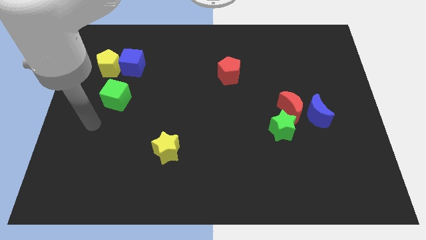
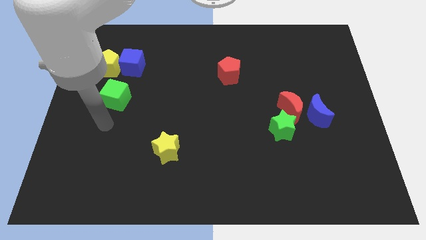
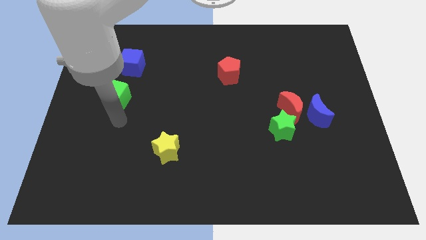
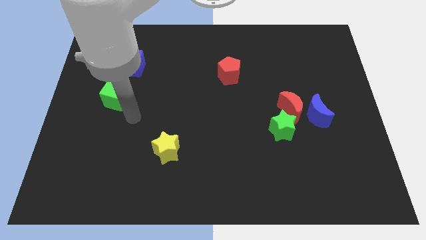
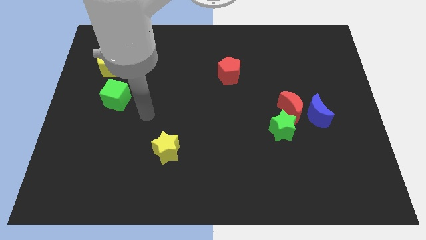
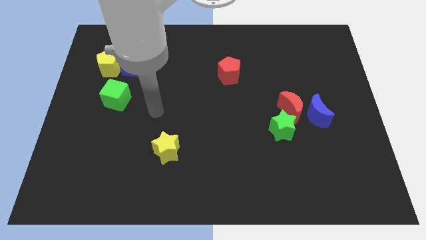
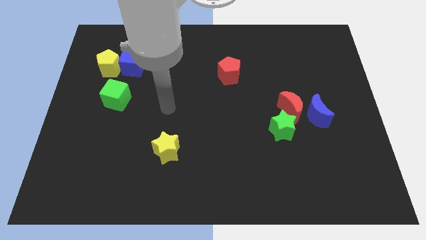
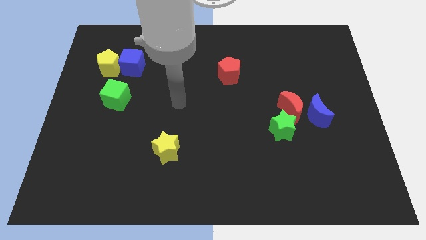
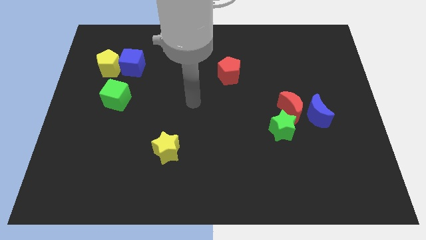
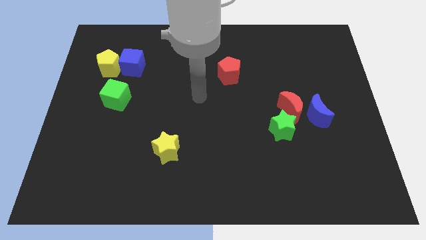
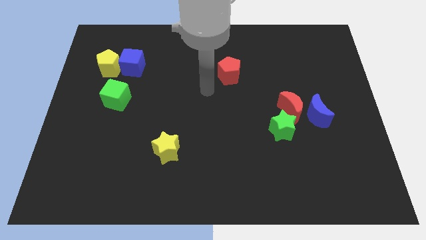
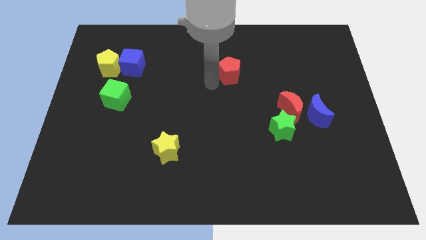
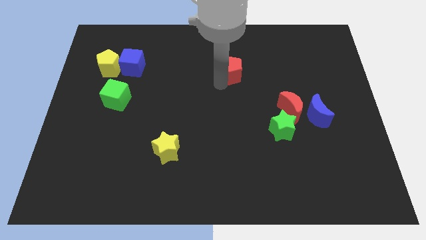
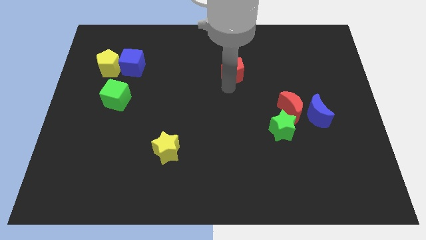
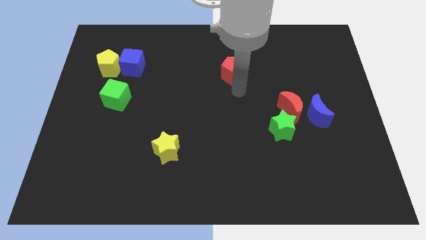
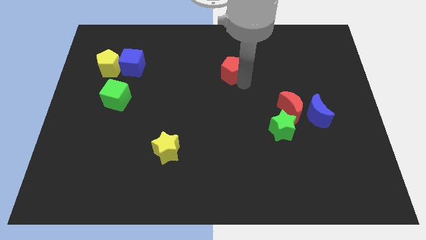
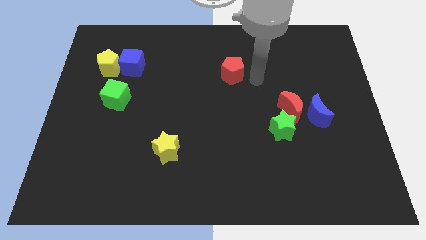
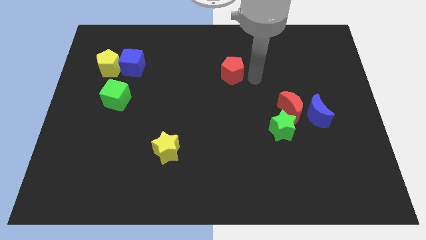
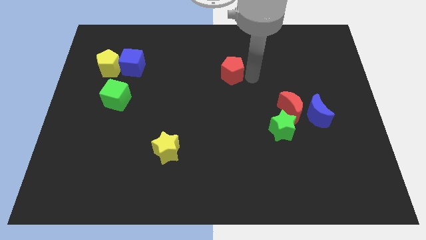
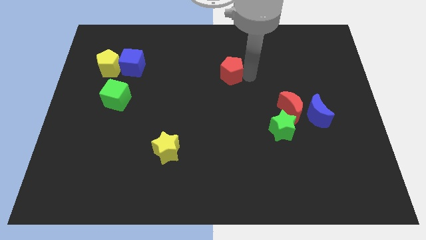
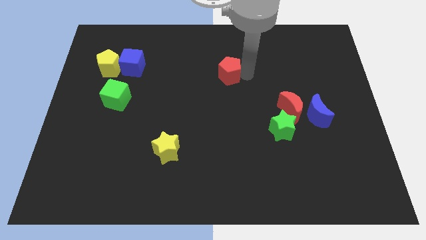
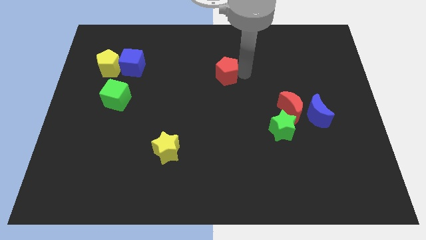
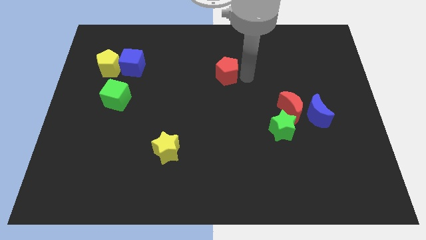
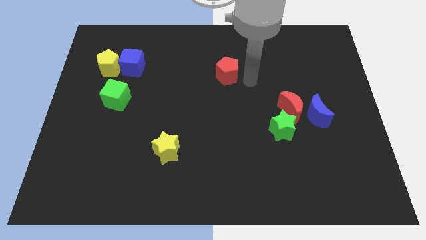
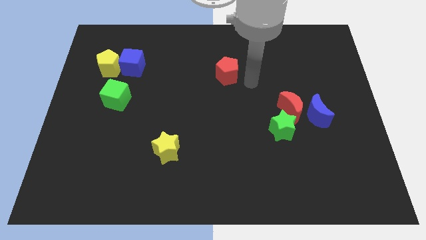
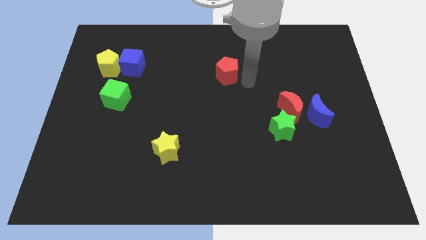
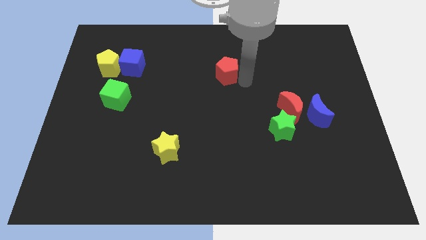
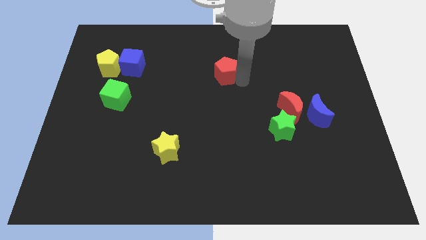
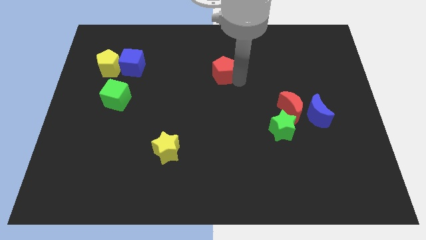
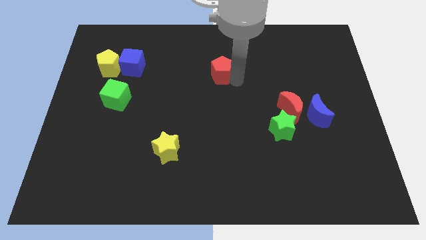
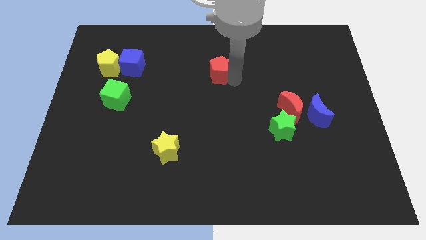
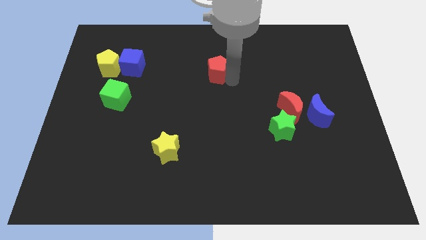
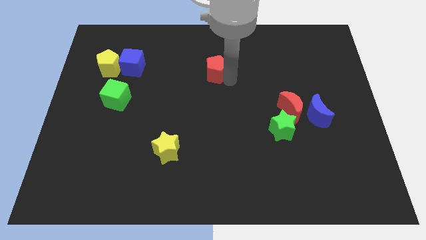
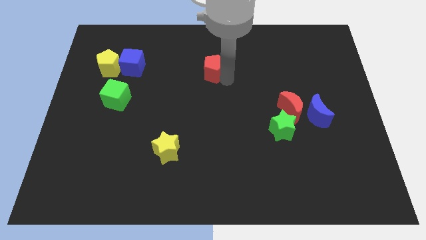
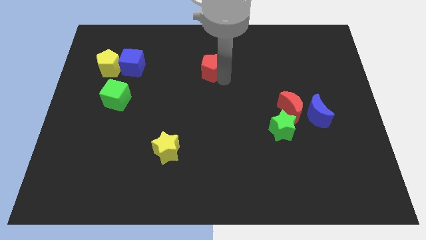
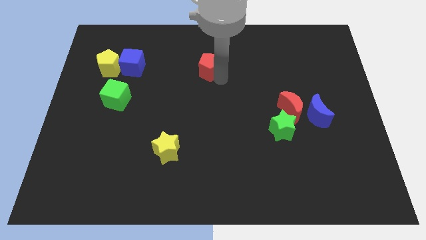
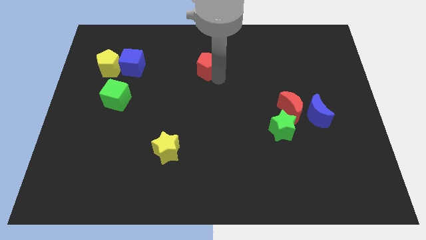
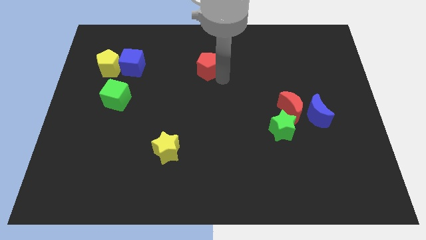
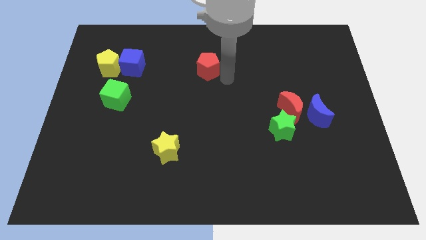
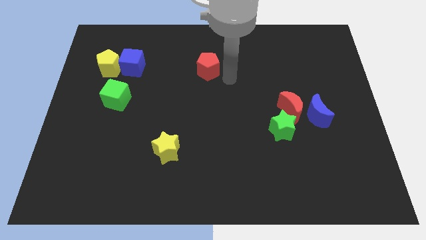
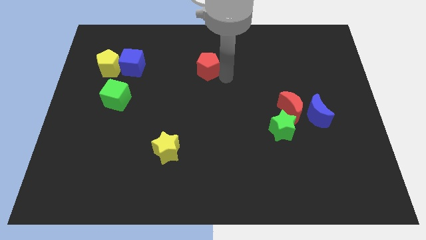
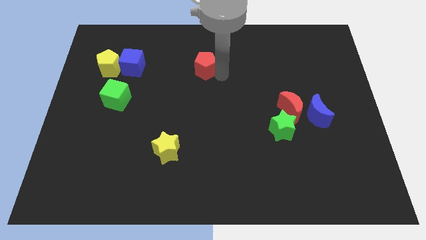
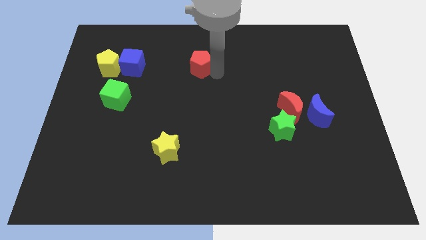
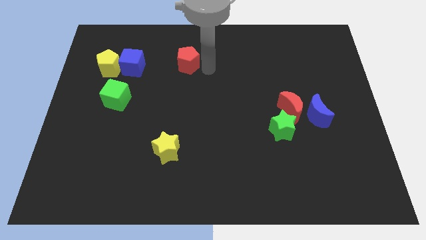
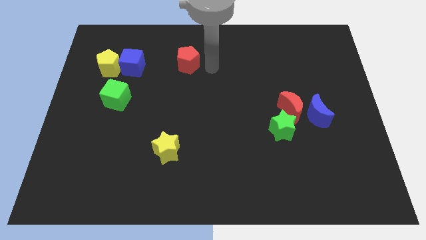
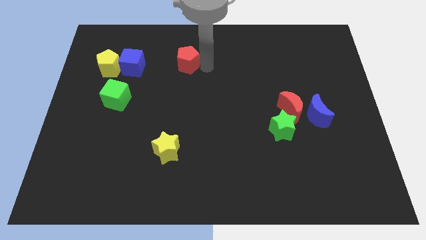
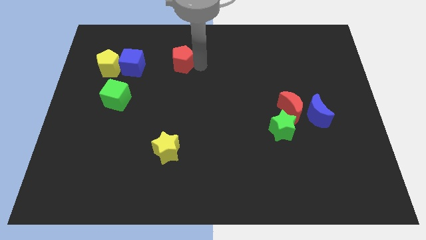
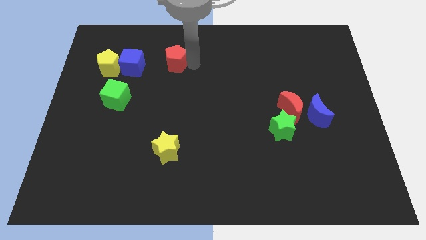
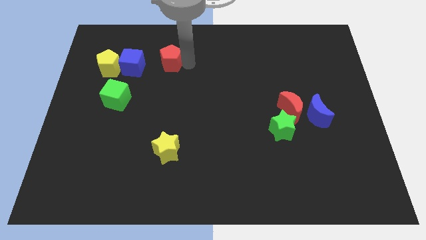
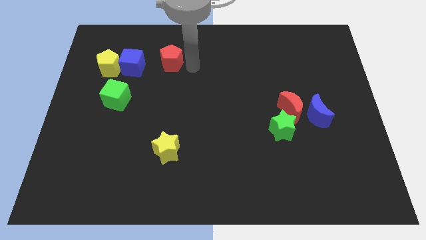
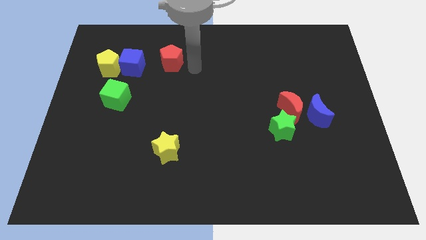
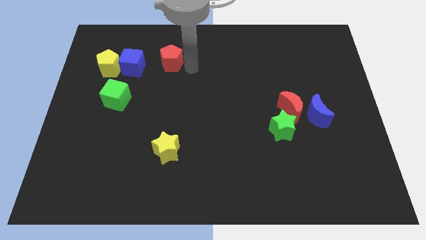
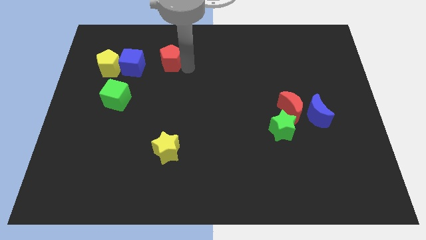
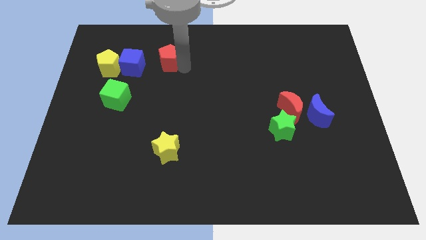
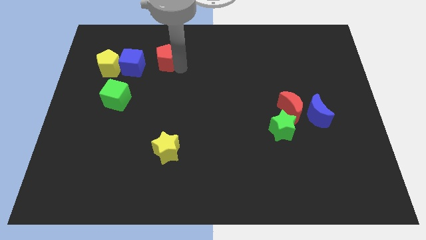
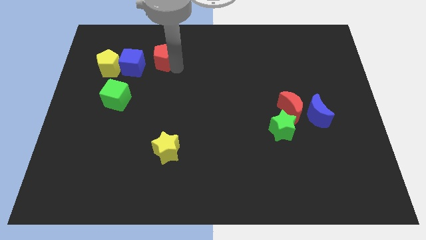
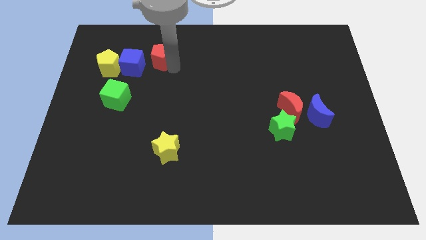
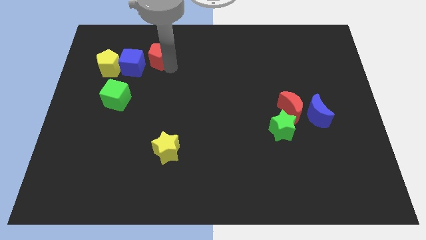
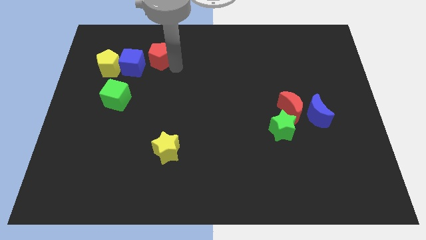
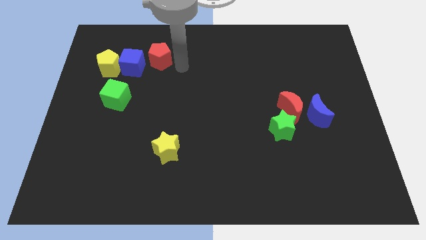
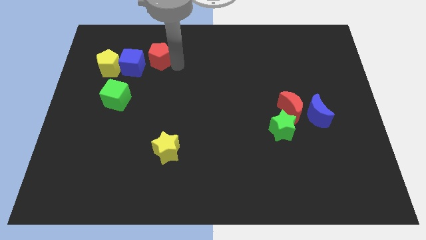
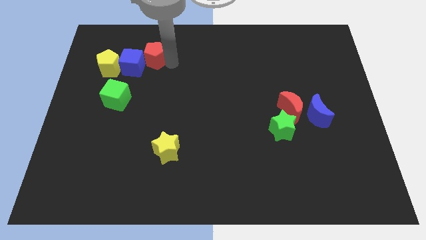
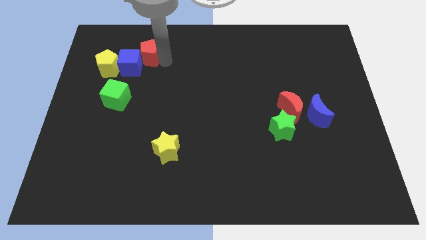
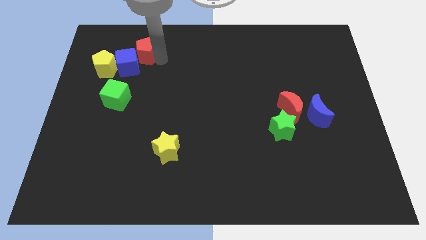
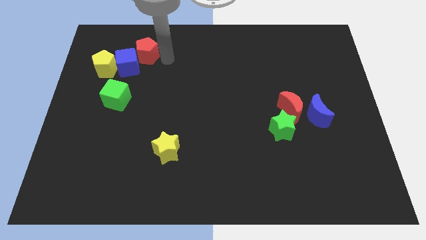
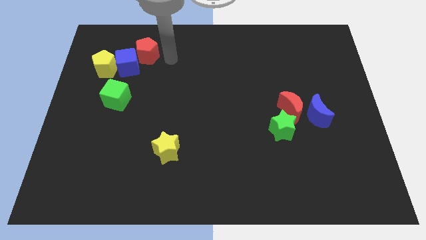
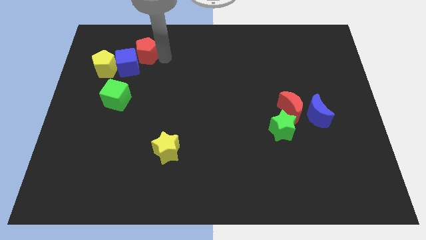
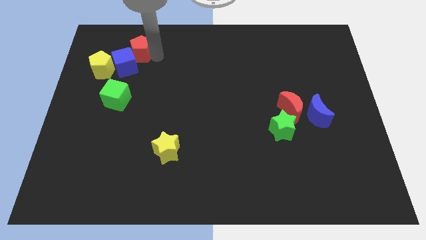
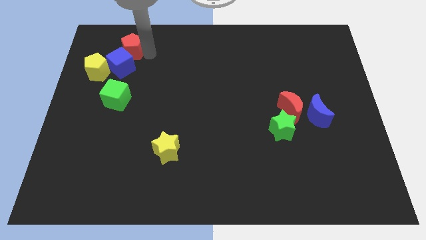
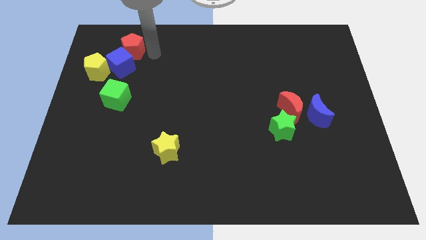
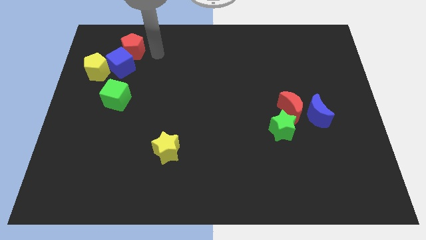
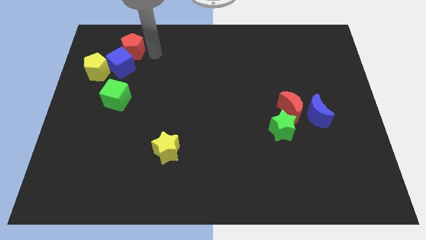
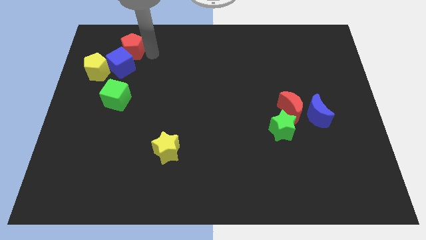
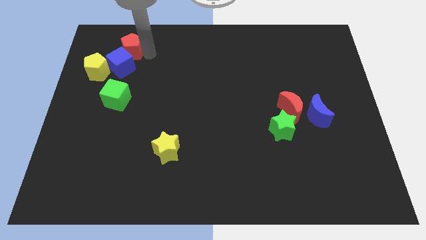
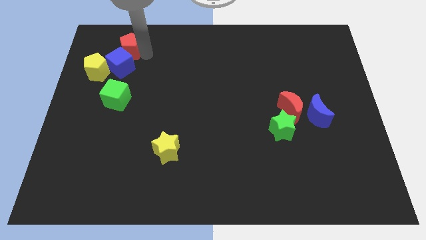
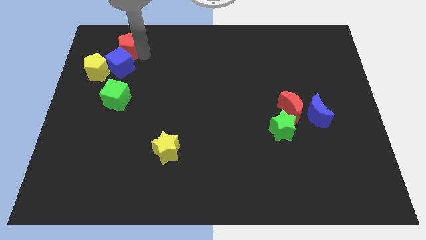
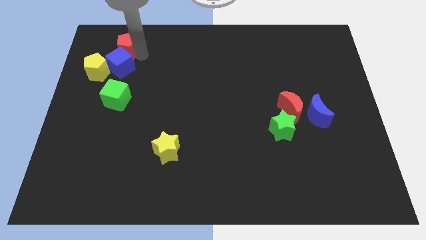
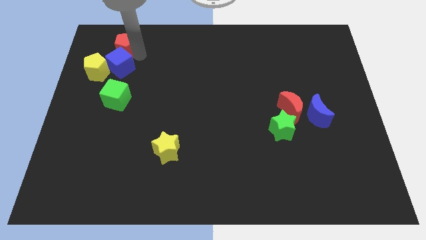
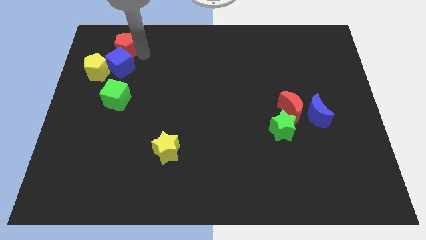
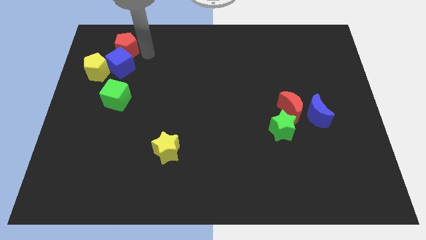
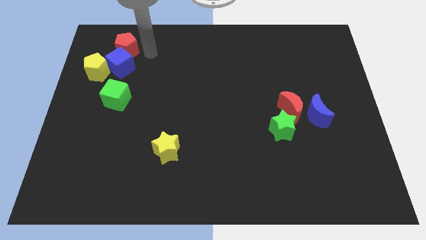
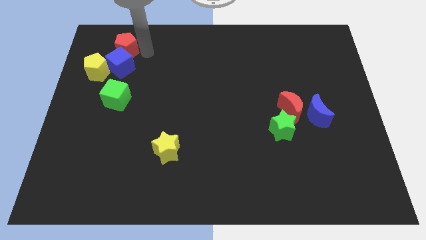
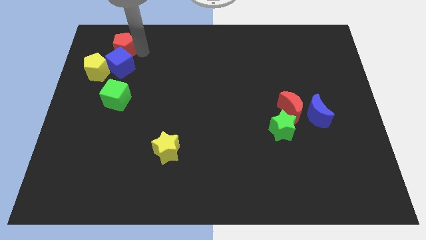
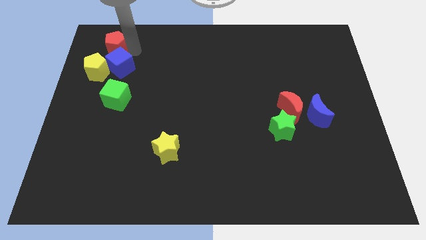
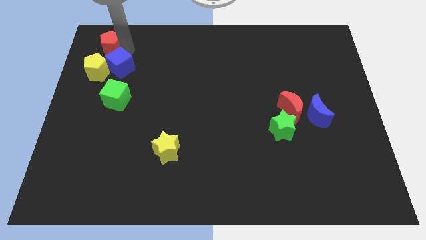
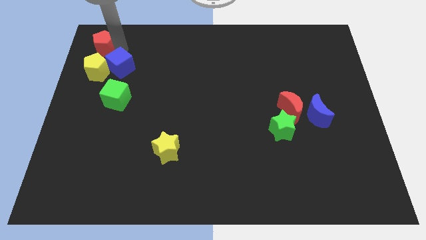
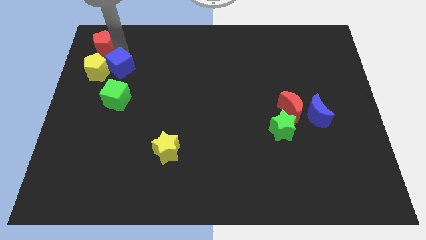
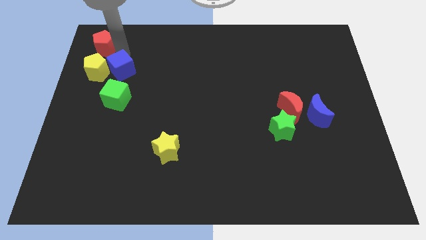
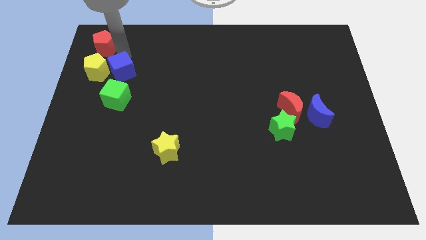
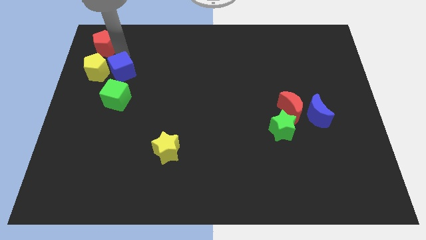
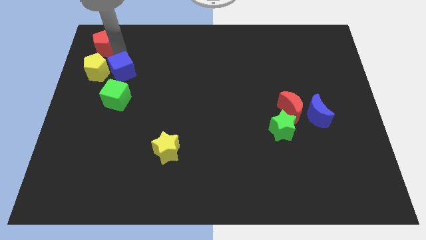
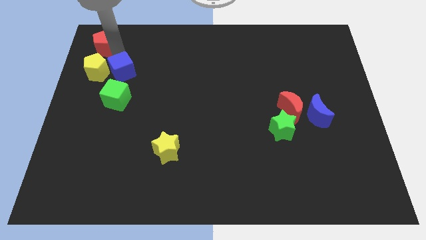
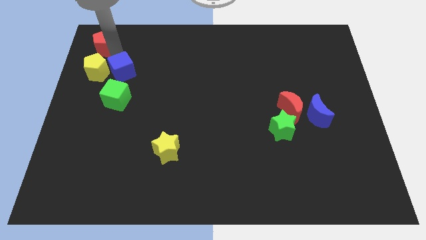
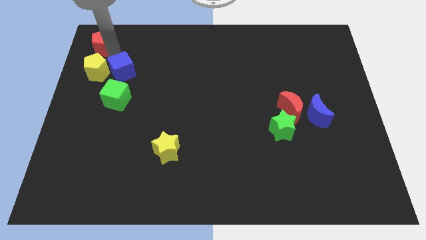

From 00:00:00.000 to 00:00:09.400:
push the red pentagon to the upper left corner
